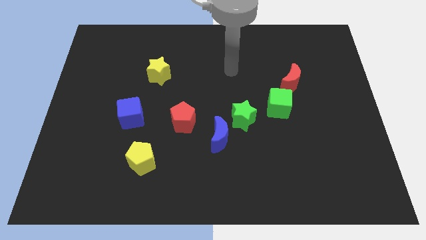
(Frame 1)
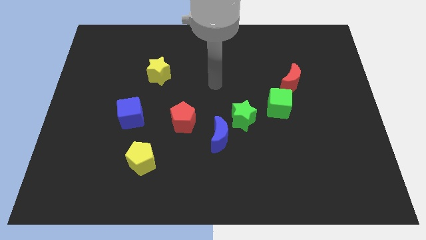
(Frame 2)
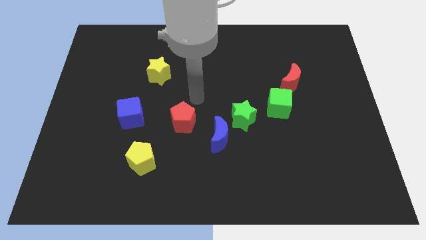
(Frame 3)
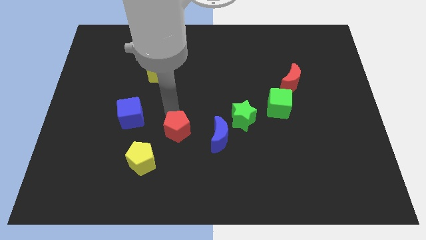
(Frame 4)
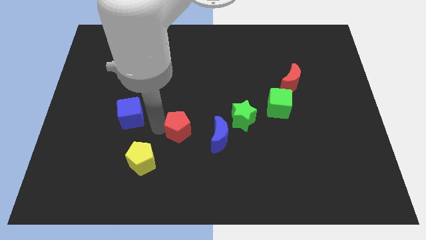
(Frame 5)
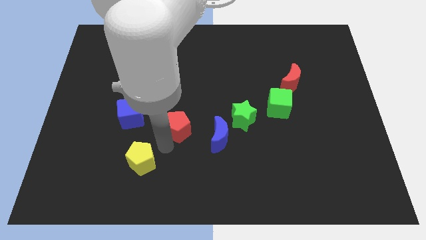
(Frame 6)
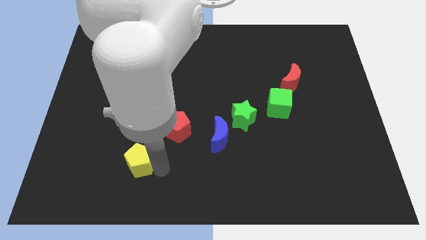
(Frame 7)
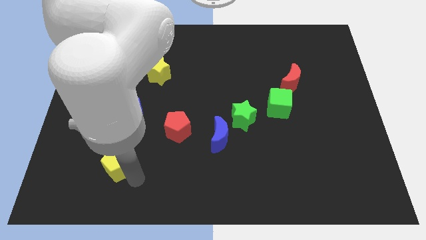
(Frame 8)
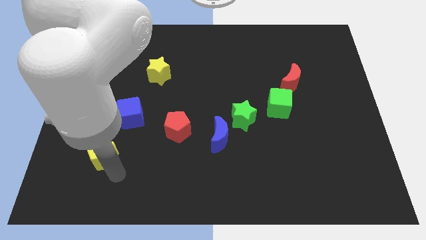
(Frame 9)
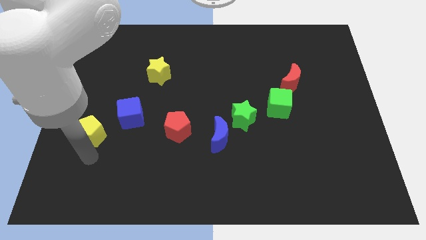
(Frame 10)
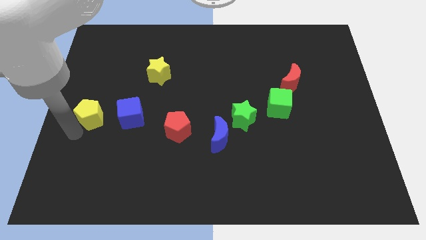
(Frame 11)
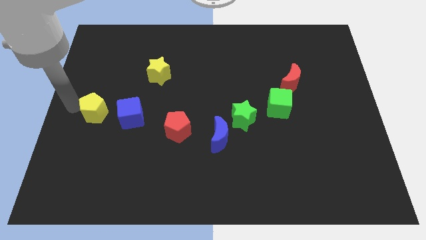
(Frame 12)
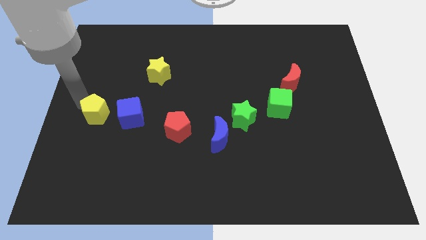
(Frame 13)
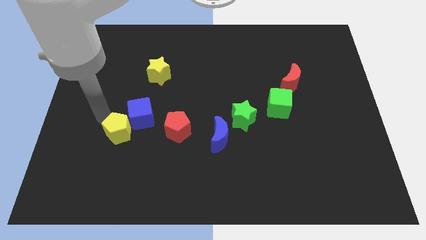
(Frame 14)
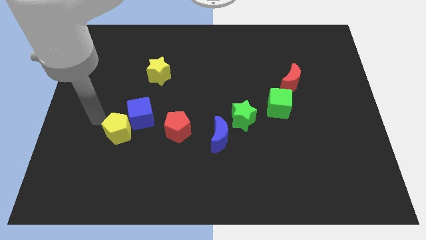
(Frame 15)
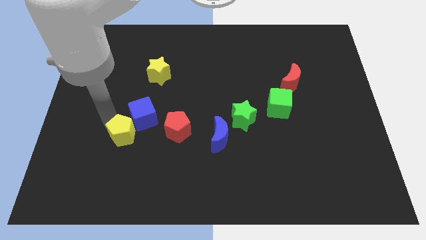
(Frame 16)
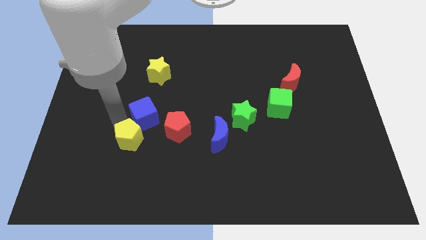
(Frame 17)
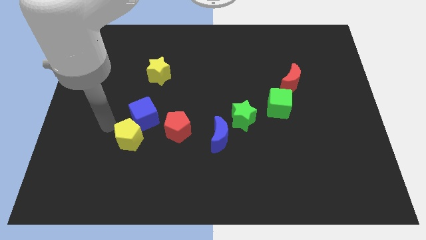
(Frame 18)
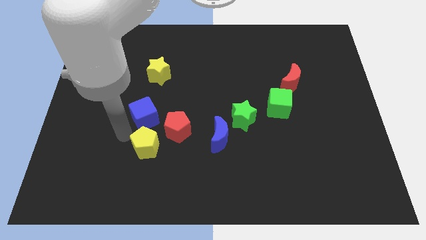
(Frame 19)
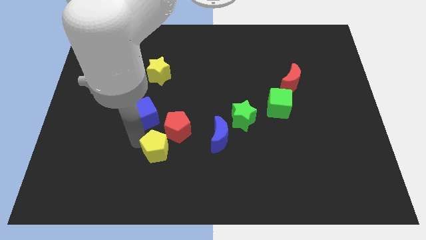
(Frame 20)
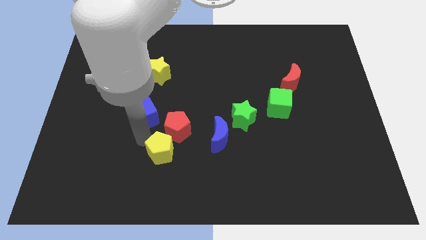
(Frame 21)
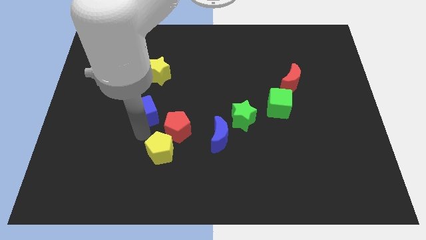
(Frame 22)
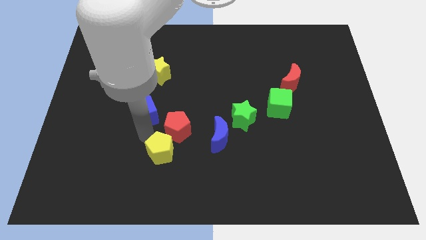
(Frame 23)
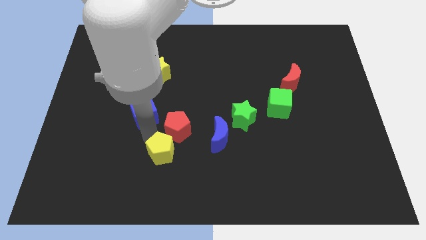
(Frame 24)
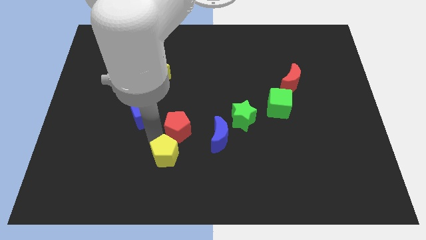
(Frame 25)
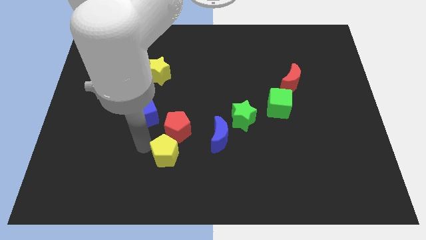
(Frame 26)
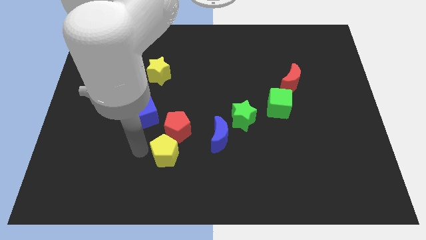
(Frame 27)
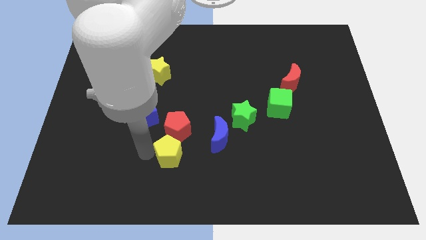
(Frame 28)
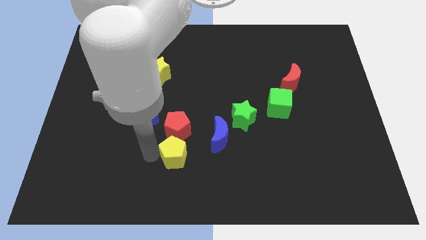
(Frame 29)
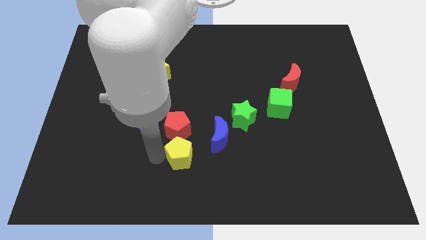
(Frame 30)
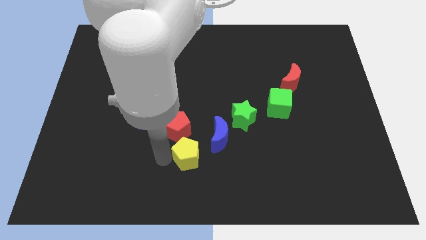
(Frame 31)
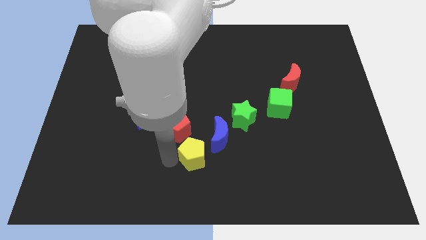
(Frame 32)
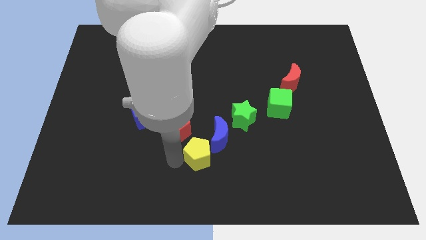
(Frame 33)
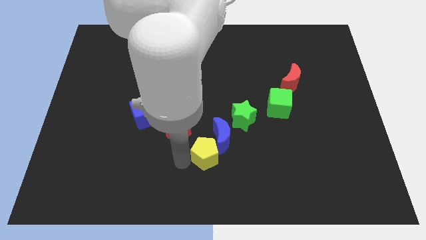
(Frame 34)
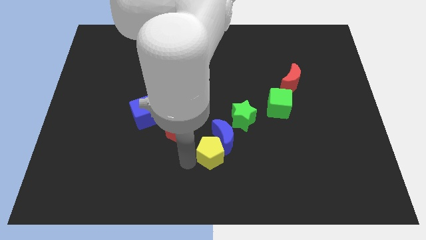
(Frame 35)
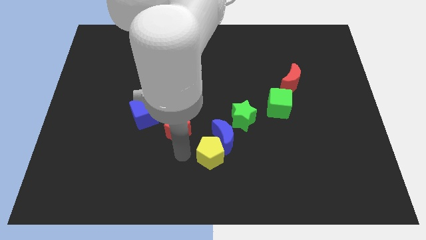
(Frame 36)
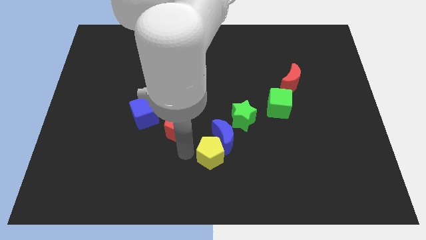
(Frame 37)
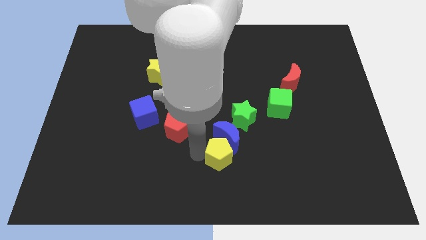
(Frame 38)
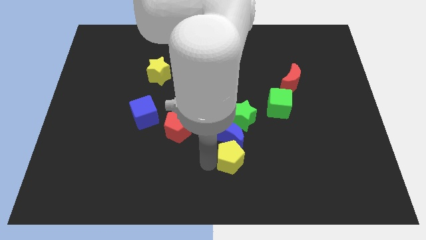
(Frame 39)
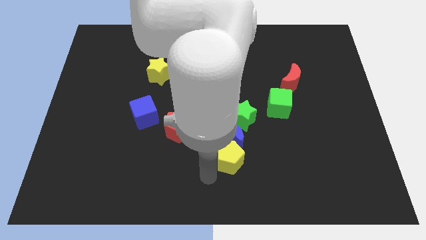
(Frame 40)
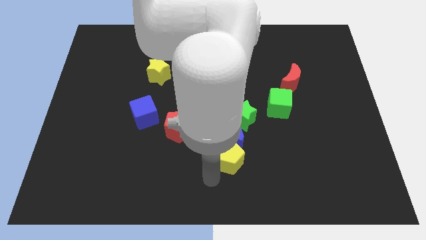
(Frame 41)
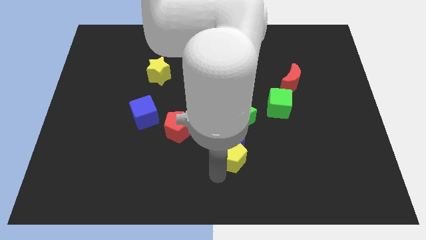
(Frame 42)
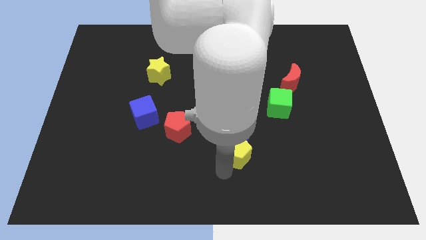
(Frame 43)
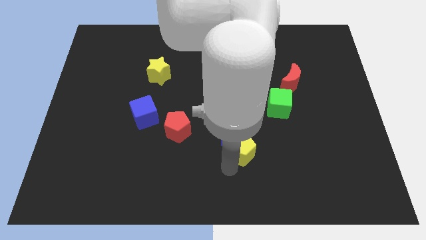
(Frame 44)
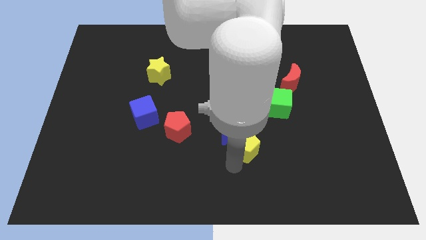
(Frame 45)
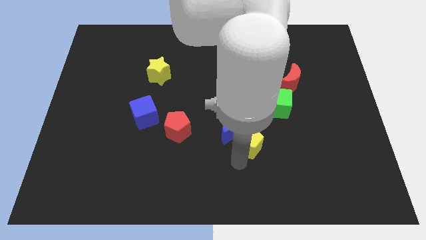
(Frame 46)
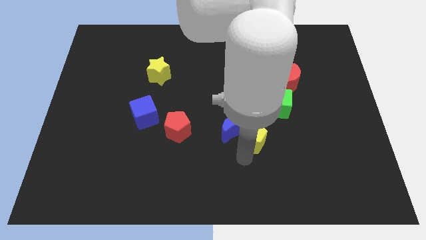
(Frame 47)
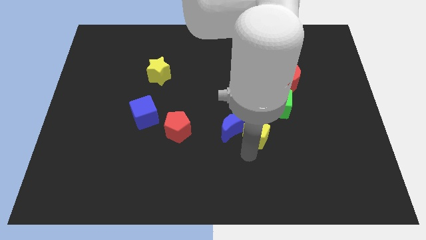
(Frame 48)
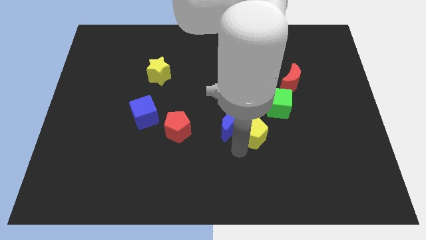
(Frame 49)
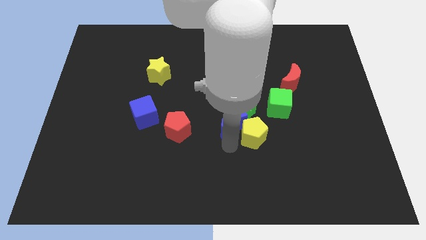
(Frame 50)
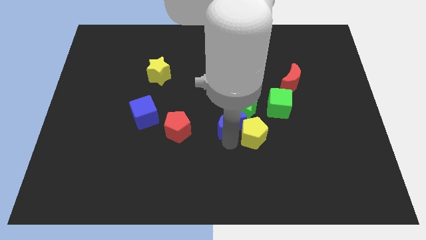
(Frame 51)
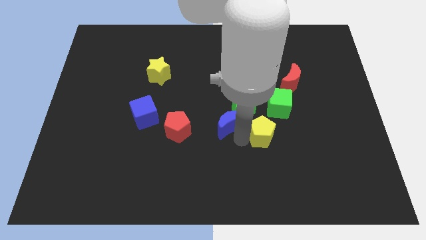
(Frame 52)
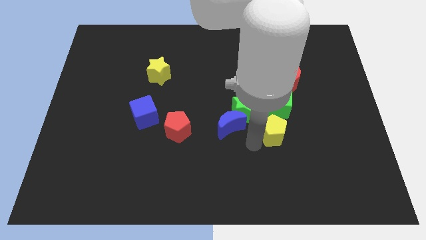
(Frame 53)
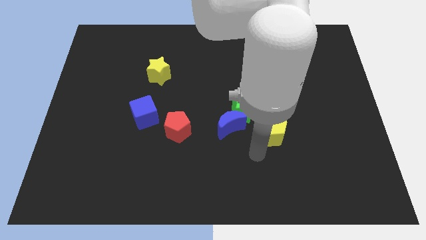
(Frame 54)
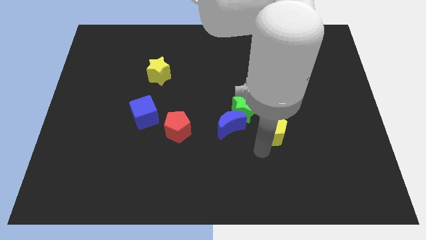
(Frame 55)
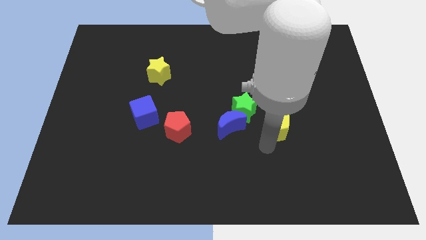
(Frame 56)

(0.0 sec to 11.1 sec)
push the yellow pentagon just right of the green star
